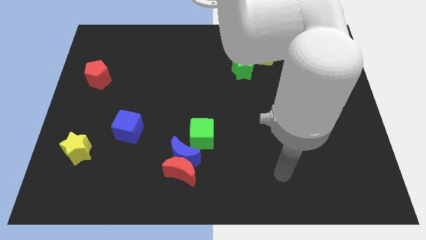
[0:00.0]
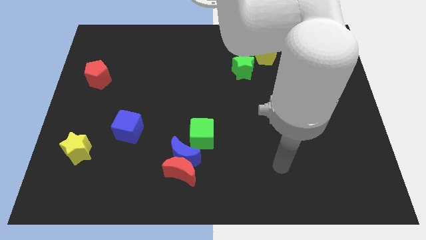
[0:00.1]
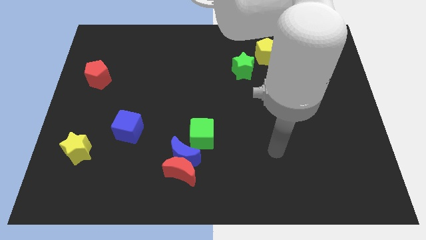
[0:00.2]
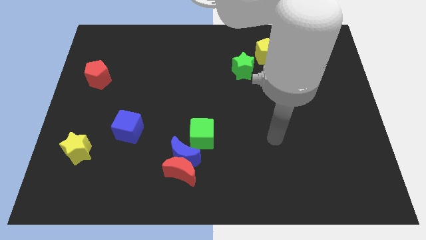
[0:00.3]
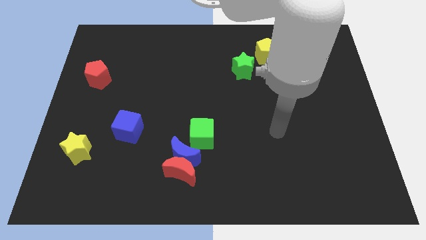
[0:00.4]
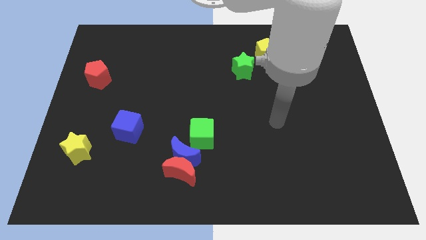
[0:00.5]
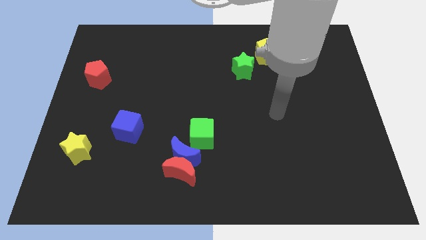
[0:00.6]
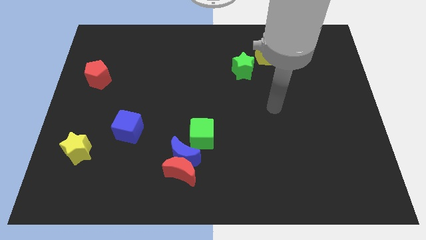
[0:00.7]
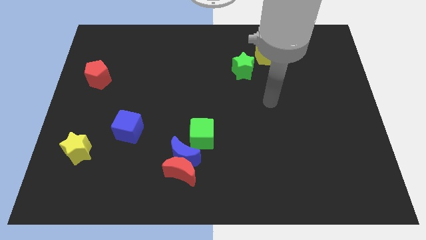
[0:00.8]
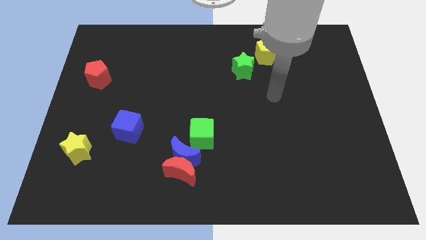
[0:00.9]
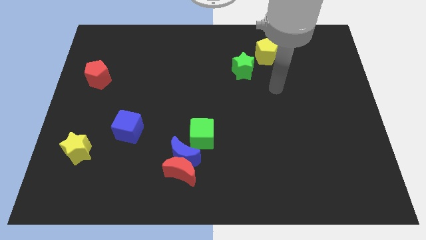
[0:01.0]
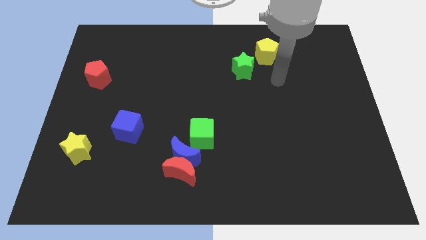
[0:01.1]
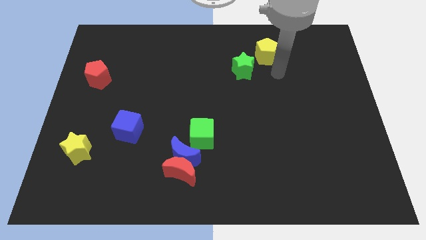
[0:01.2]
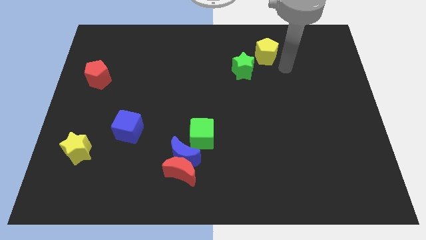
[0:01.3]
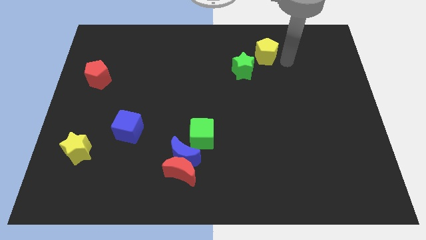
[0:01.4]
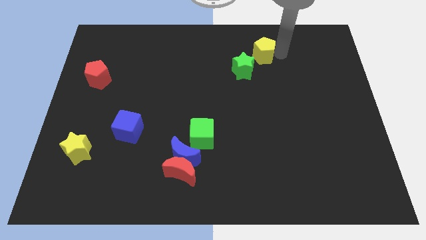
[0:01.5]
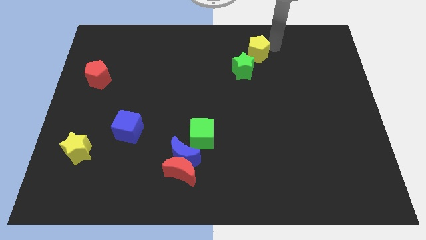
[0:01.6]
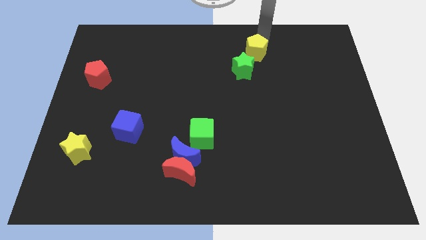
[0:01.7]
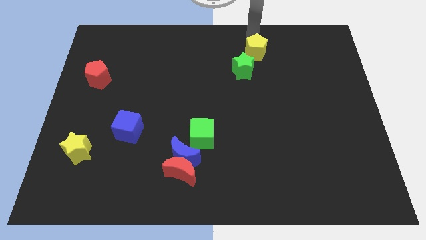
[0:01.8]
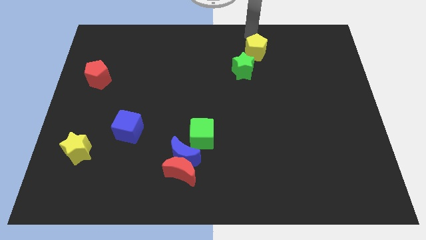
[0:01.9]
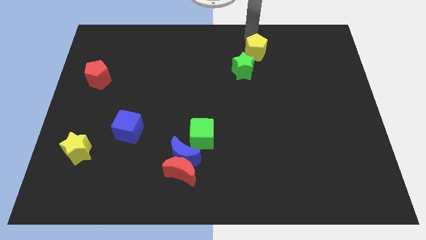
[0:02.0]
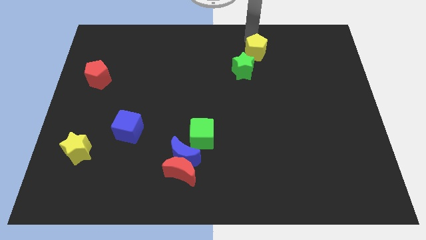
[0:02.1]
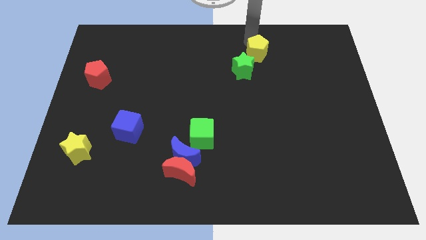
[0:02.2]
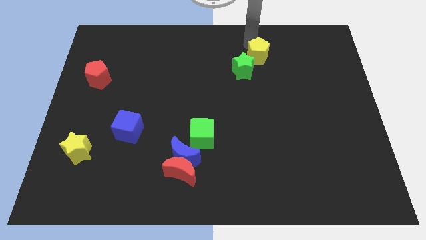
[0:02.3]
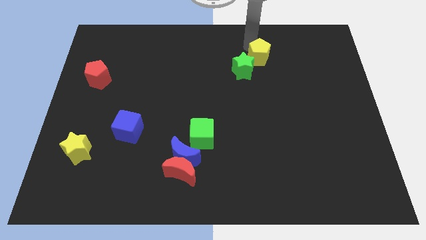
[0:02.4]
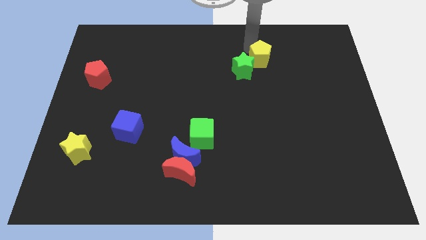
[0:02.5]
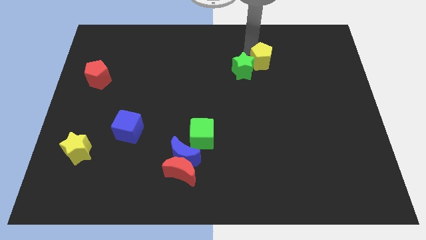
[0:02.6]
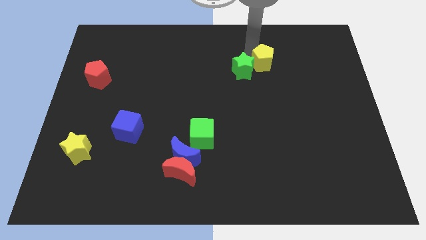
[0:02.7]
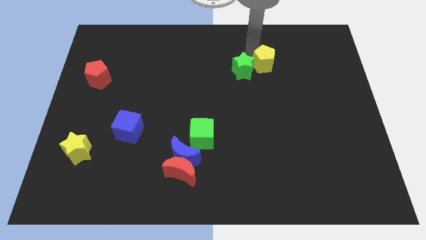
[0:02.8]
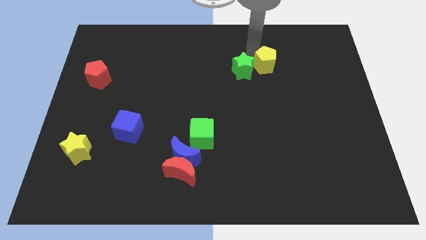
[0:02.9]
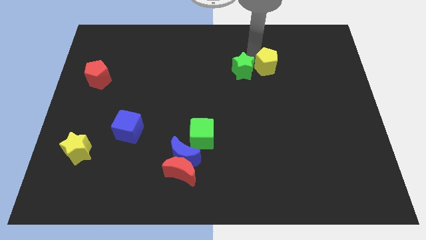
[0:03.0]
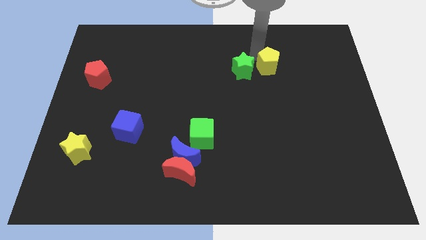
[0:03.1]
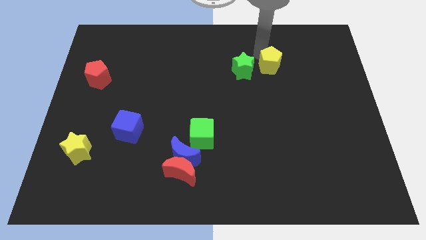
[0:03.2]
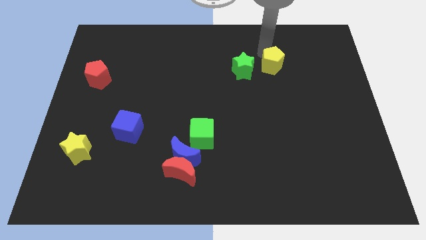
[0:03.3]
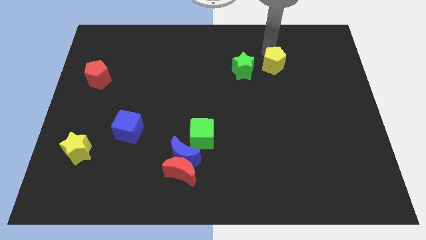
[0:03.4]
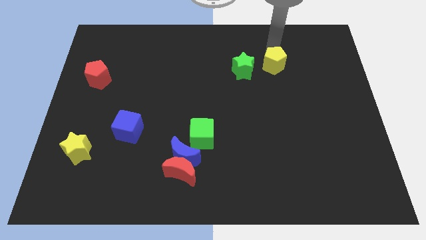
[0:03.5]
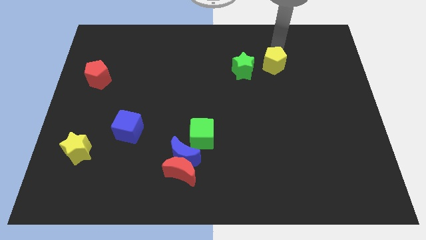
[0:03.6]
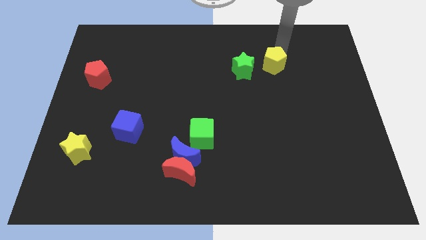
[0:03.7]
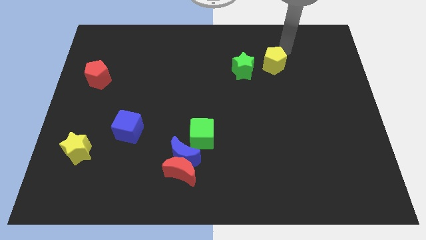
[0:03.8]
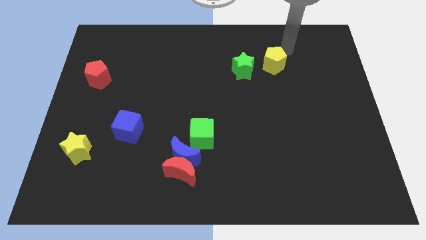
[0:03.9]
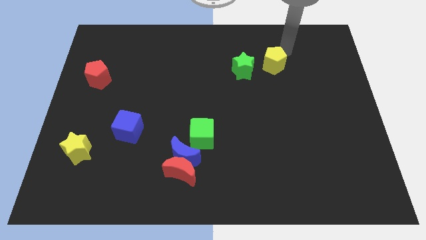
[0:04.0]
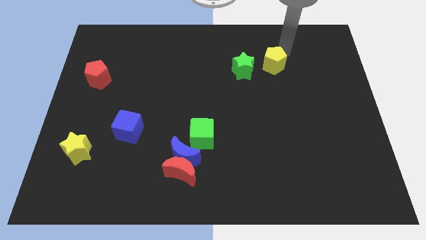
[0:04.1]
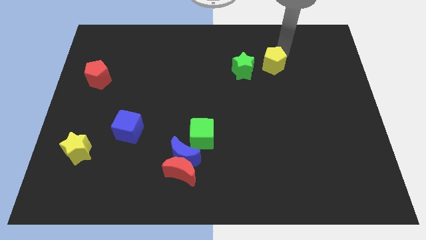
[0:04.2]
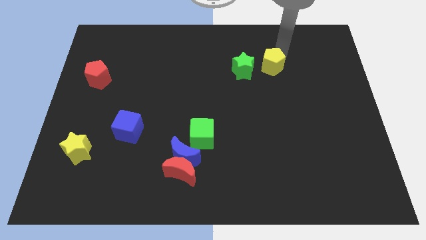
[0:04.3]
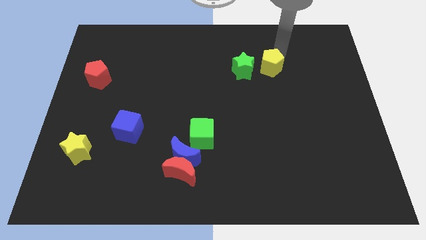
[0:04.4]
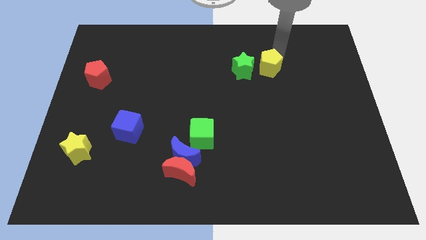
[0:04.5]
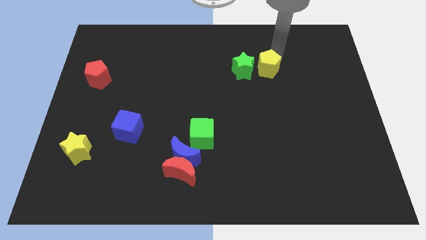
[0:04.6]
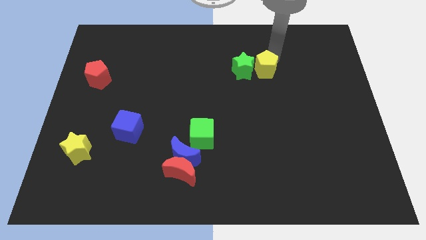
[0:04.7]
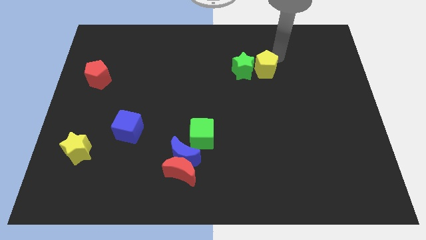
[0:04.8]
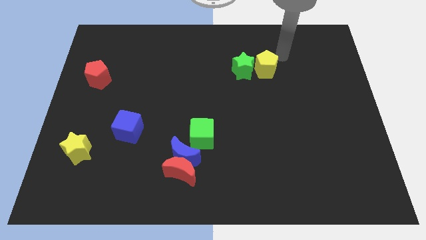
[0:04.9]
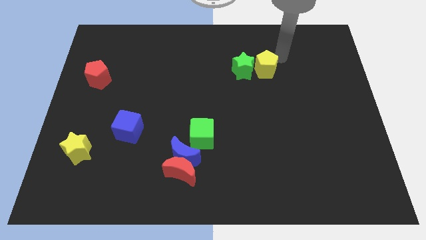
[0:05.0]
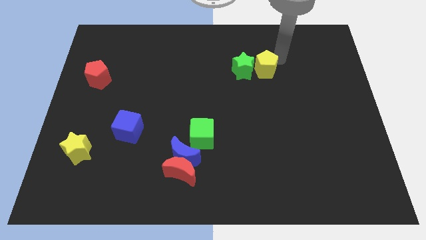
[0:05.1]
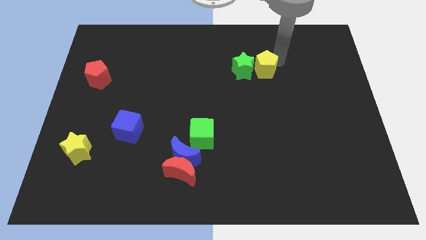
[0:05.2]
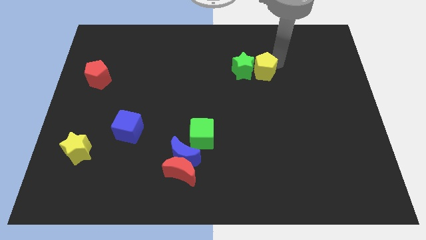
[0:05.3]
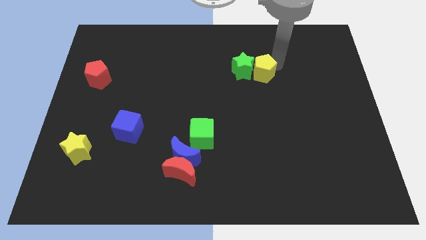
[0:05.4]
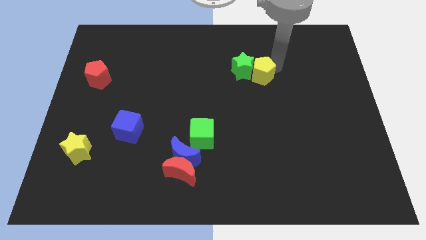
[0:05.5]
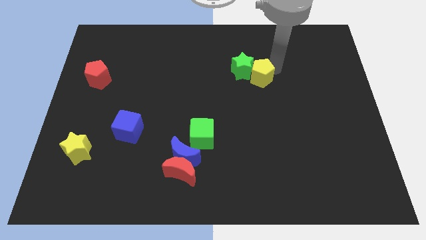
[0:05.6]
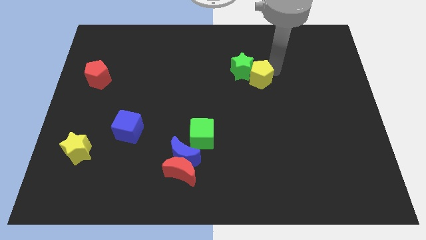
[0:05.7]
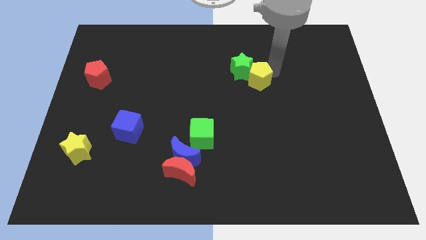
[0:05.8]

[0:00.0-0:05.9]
slightly move the yellow pentagon diagonally downwards and to the left

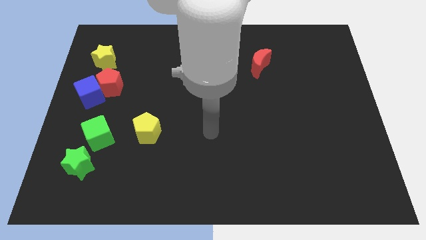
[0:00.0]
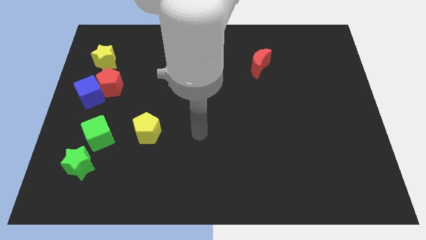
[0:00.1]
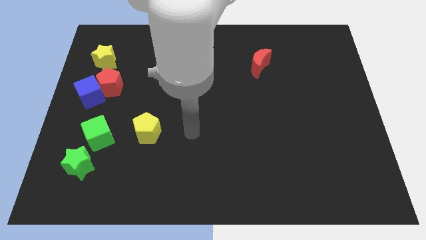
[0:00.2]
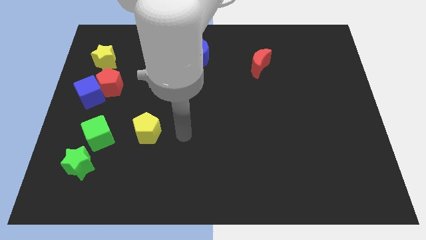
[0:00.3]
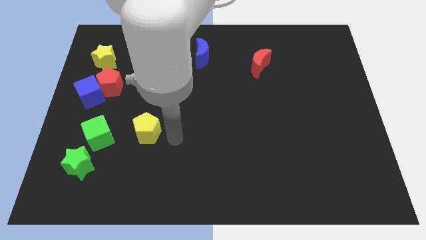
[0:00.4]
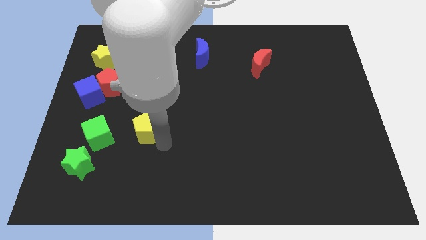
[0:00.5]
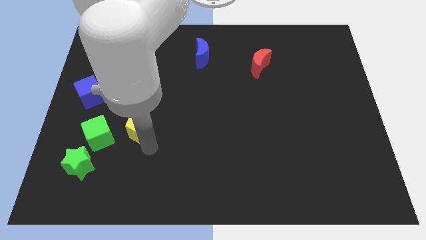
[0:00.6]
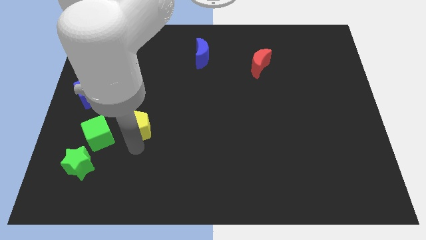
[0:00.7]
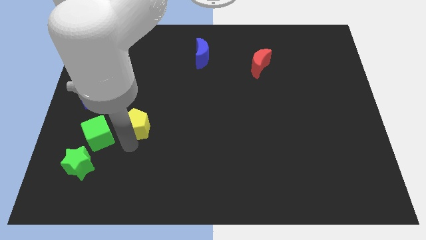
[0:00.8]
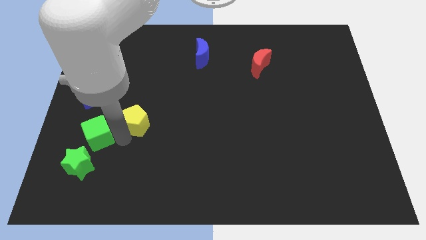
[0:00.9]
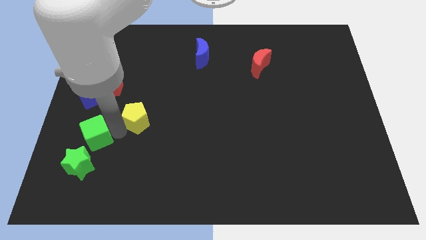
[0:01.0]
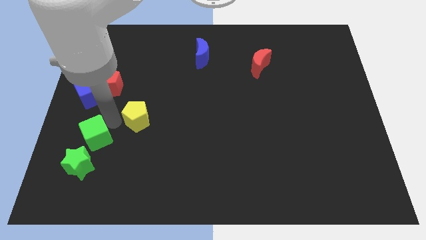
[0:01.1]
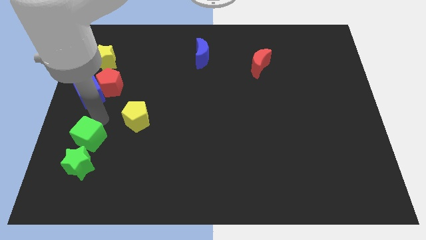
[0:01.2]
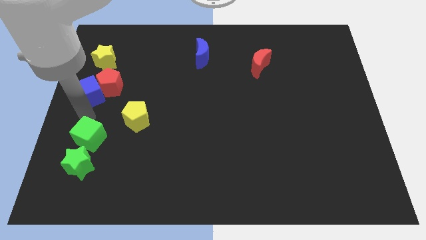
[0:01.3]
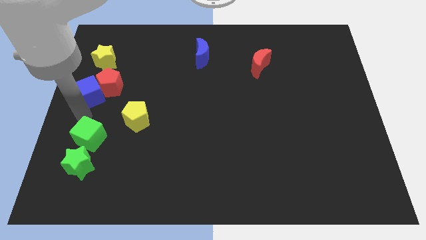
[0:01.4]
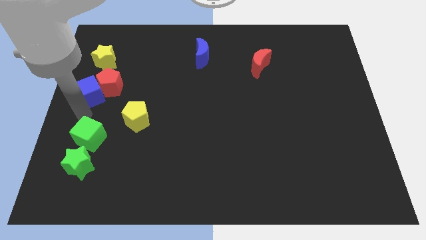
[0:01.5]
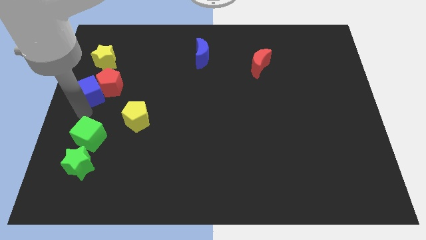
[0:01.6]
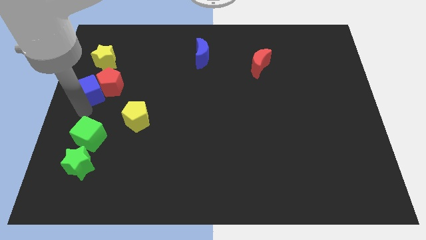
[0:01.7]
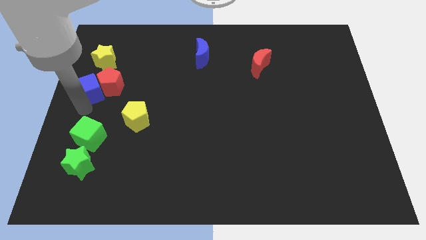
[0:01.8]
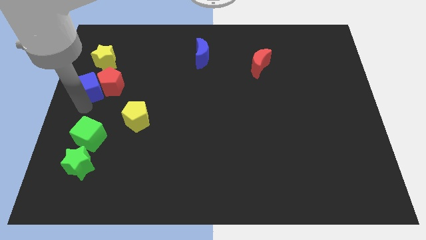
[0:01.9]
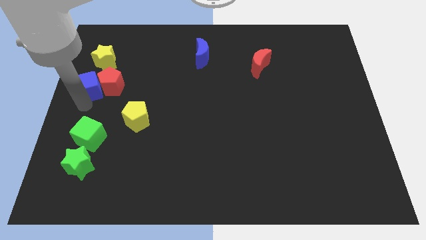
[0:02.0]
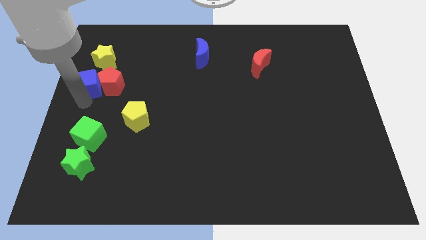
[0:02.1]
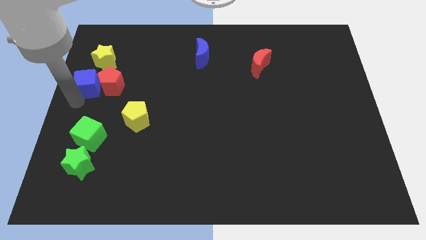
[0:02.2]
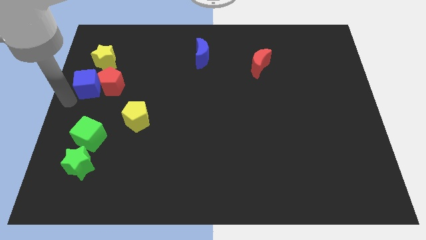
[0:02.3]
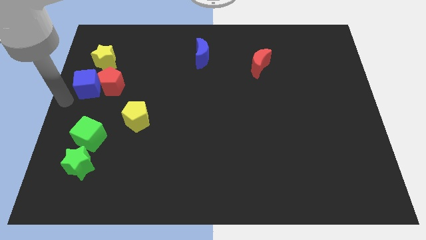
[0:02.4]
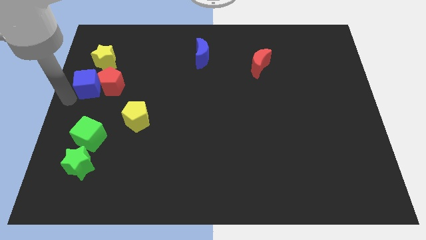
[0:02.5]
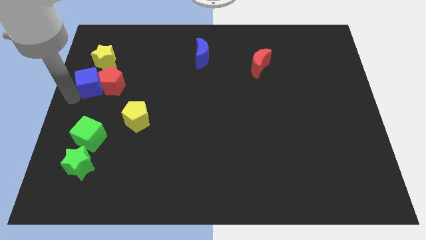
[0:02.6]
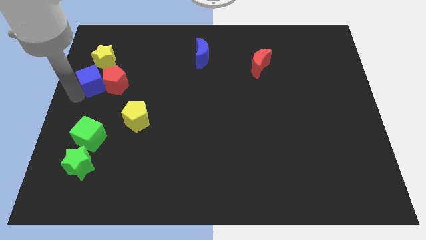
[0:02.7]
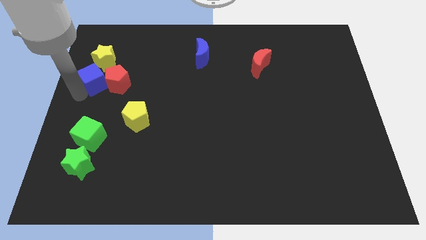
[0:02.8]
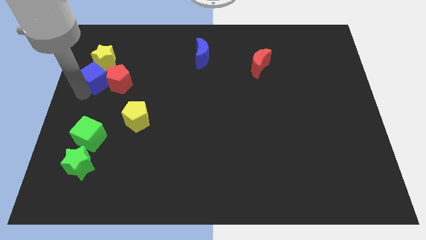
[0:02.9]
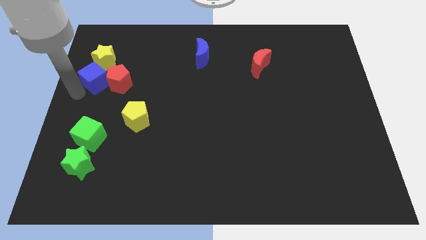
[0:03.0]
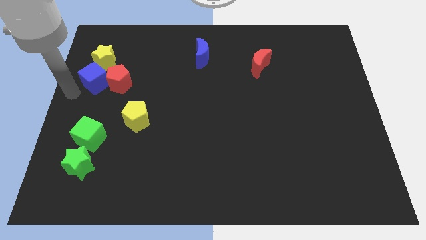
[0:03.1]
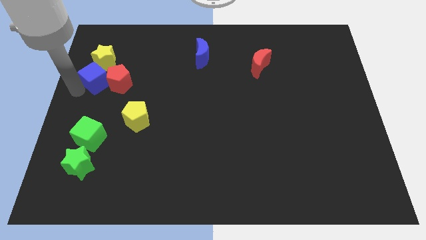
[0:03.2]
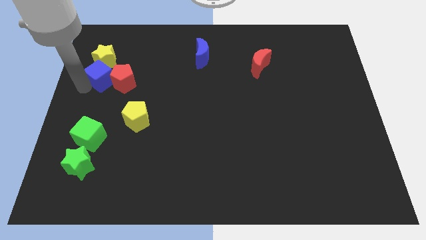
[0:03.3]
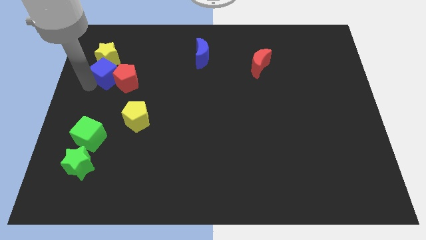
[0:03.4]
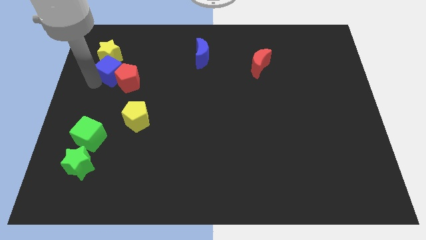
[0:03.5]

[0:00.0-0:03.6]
move the blue cube a little upwards and right diagonally
